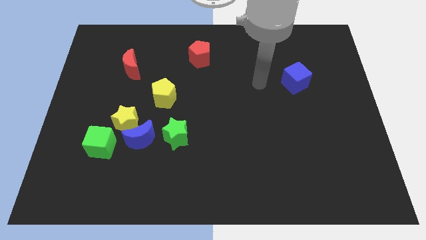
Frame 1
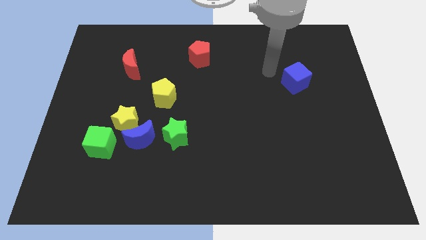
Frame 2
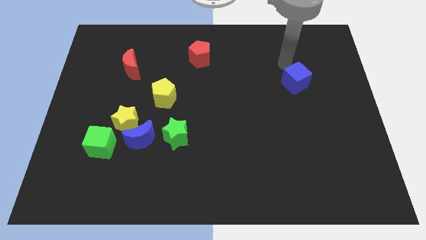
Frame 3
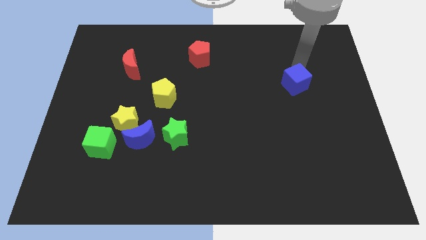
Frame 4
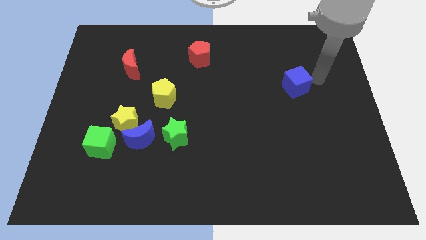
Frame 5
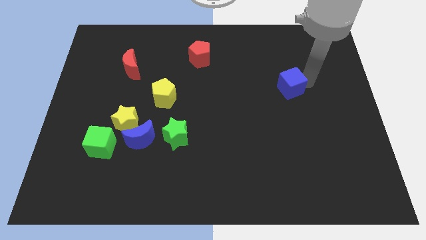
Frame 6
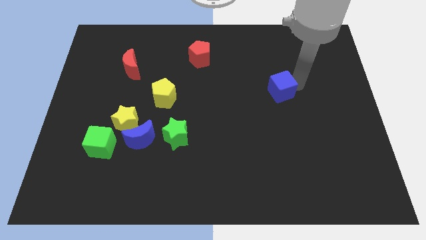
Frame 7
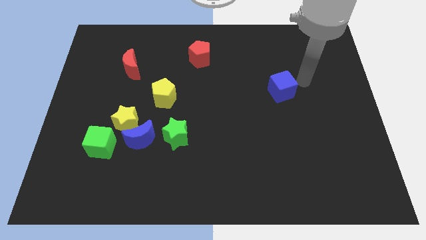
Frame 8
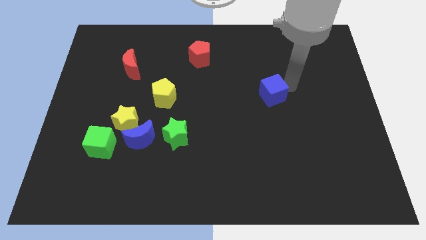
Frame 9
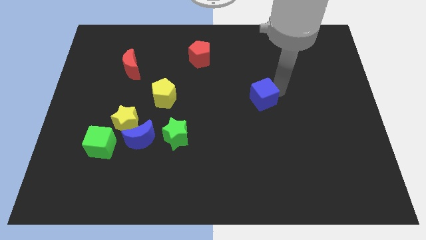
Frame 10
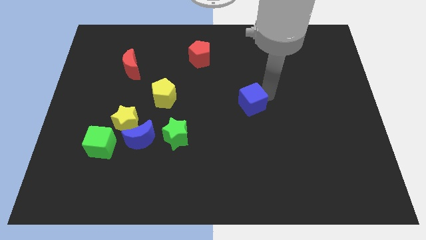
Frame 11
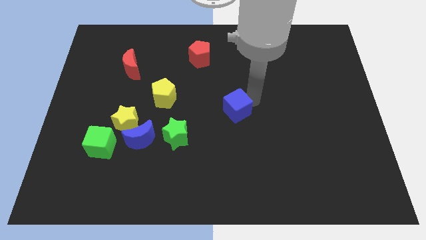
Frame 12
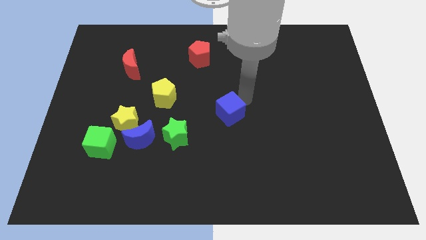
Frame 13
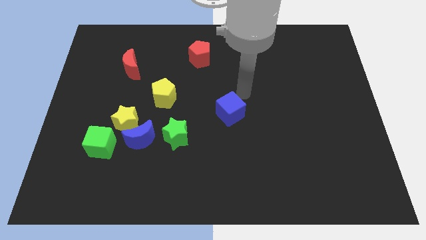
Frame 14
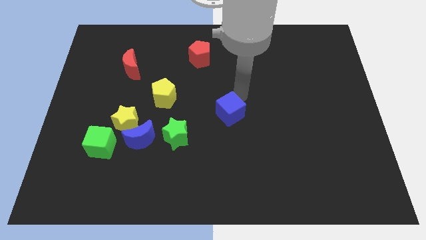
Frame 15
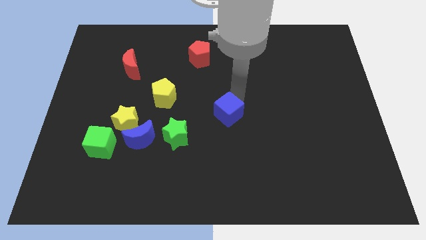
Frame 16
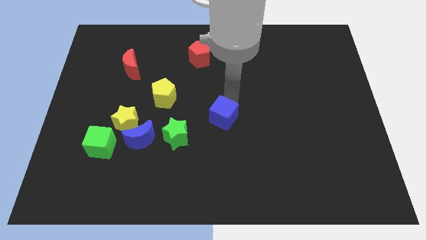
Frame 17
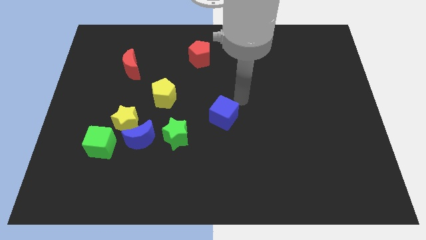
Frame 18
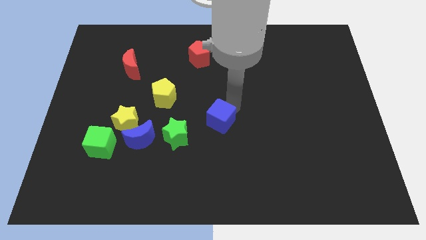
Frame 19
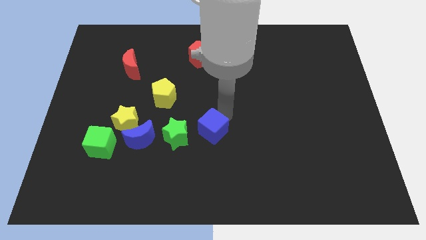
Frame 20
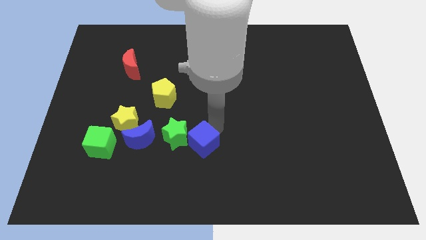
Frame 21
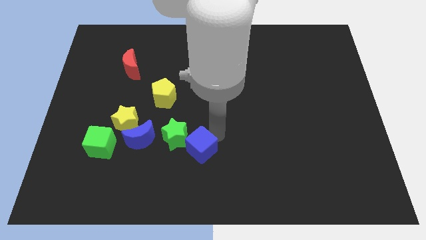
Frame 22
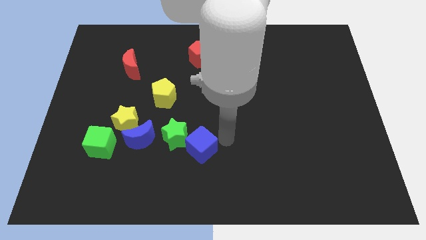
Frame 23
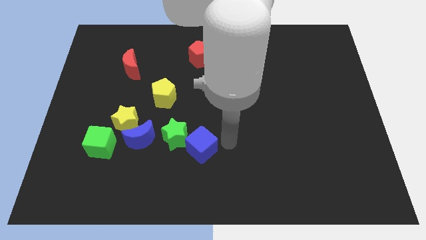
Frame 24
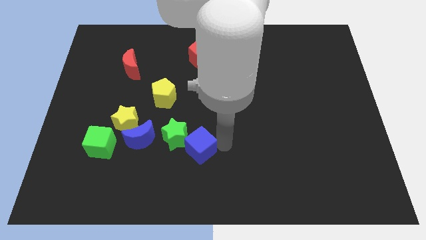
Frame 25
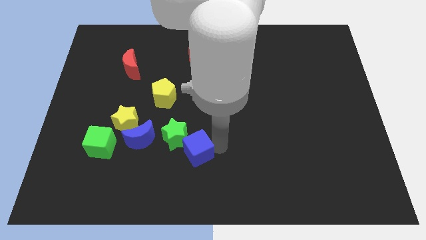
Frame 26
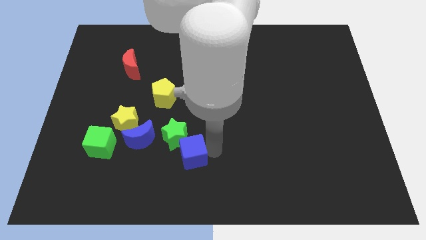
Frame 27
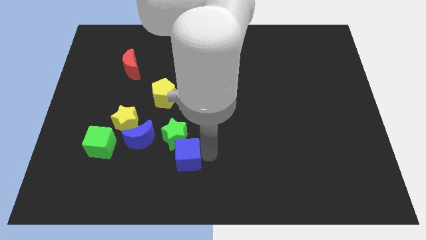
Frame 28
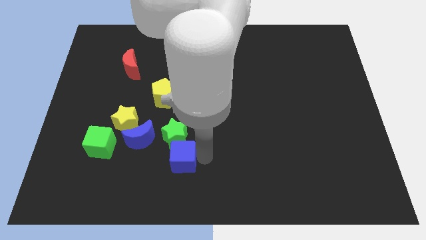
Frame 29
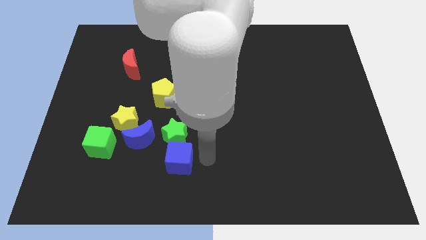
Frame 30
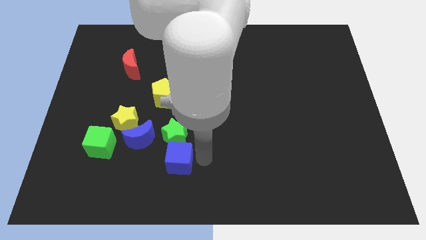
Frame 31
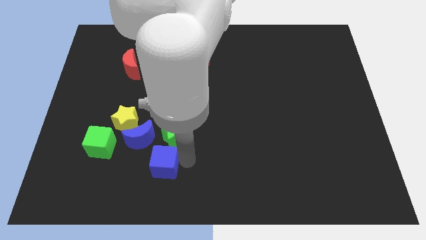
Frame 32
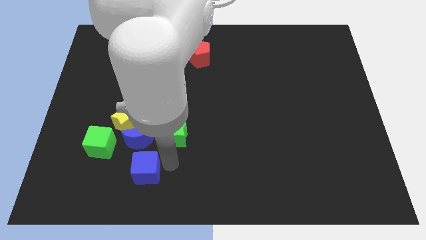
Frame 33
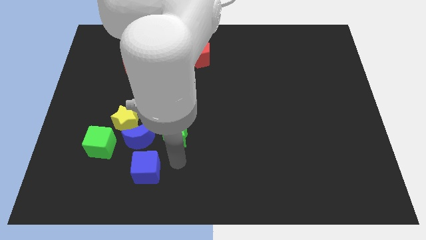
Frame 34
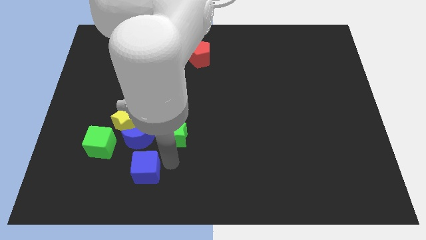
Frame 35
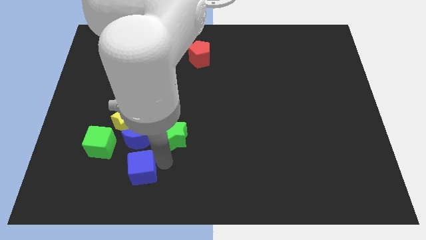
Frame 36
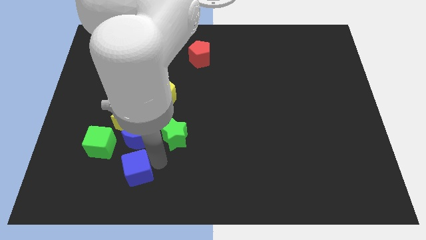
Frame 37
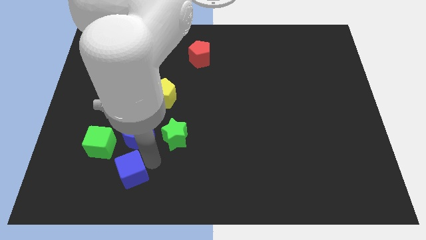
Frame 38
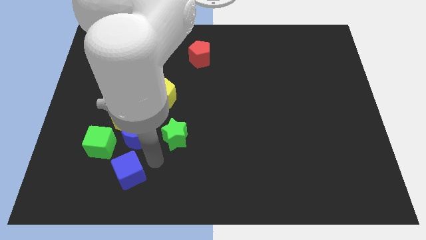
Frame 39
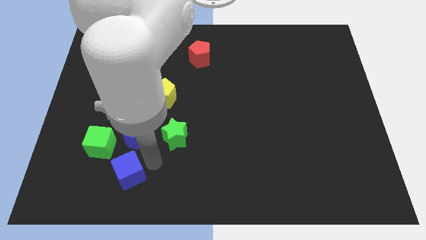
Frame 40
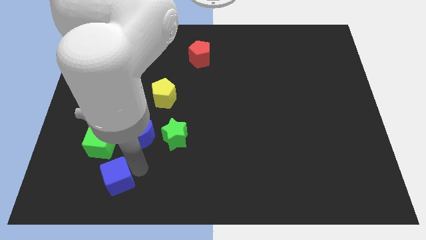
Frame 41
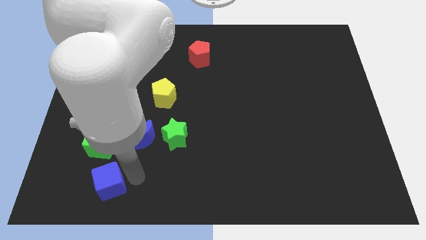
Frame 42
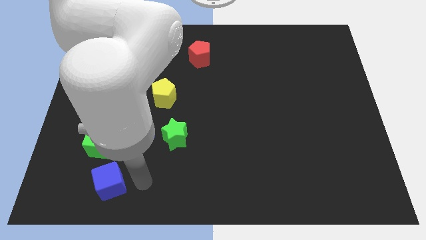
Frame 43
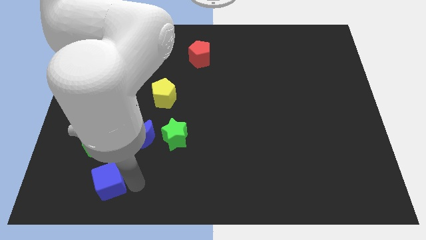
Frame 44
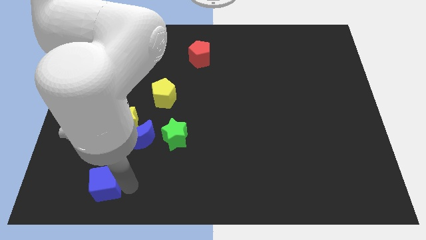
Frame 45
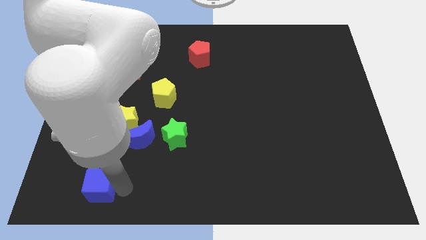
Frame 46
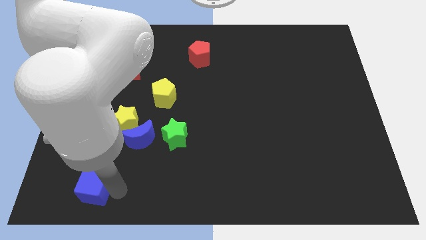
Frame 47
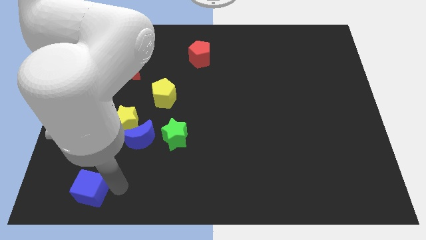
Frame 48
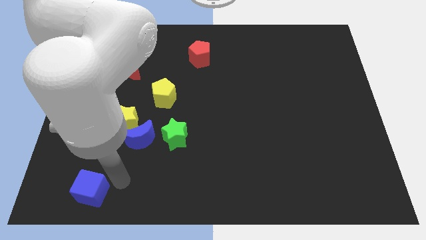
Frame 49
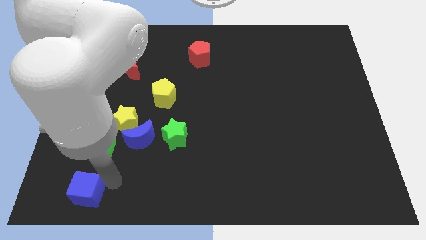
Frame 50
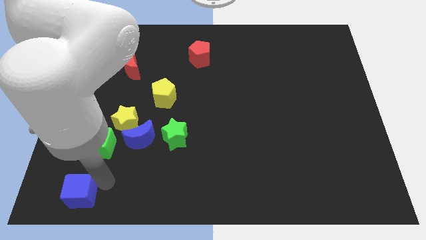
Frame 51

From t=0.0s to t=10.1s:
move the blue cube to the bottom left of the board

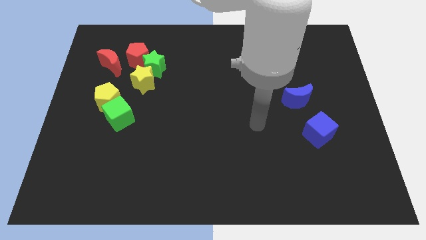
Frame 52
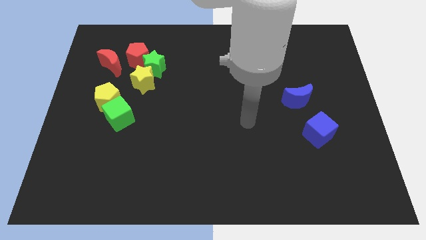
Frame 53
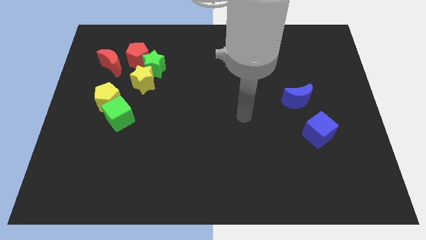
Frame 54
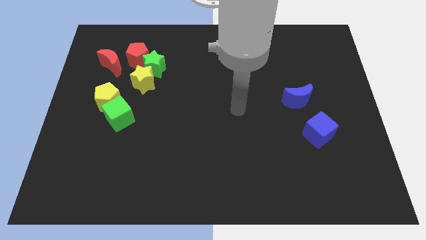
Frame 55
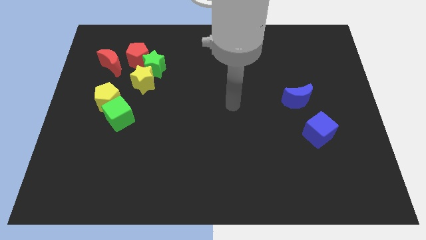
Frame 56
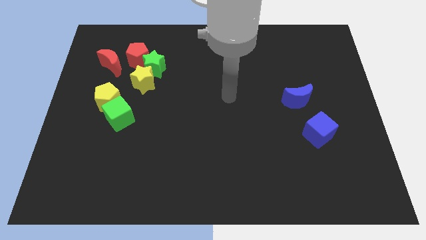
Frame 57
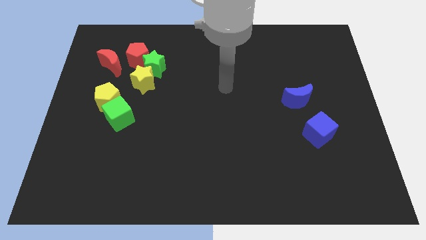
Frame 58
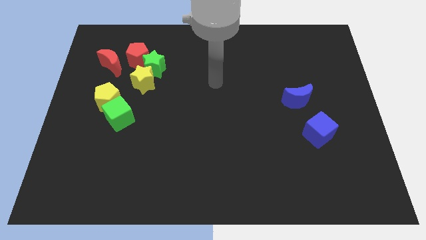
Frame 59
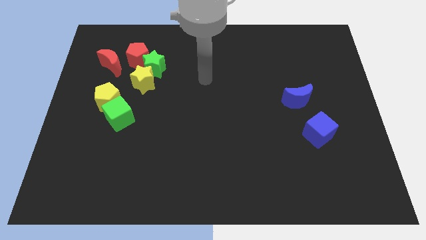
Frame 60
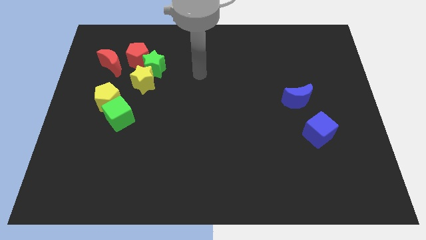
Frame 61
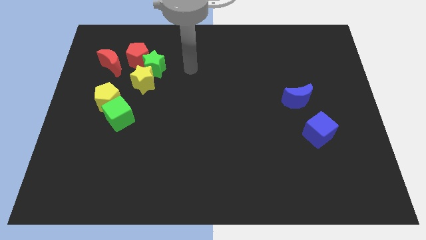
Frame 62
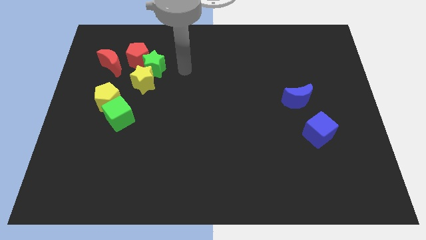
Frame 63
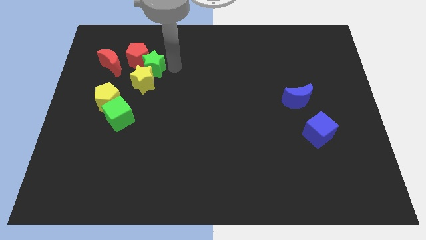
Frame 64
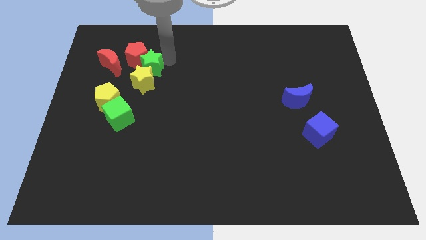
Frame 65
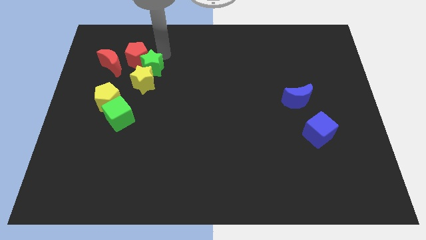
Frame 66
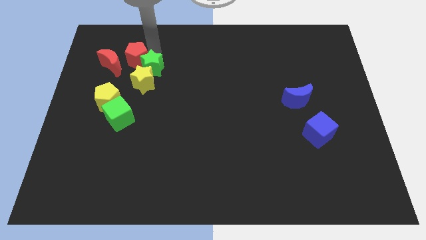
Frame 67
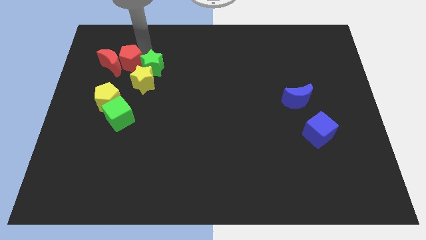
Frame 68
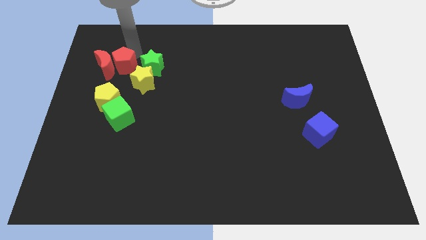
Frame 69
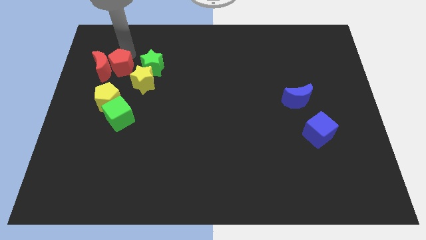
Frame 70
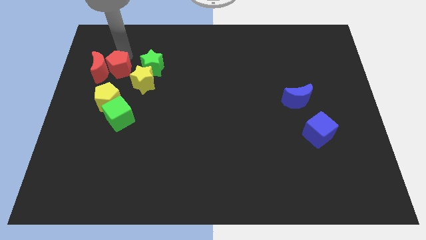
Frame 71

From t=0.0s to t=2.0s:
move the red moon to the left side of the board
